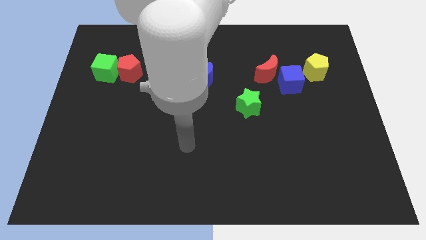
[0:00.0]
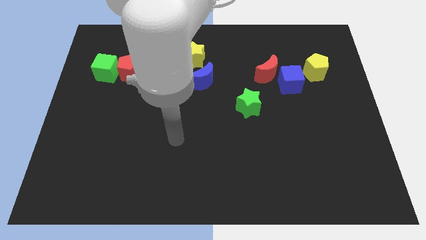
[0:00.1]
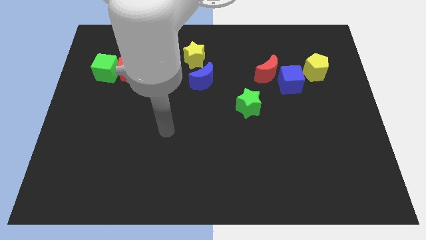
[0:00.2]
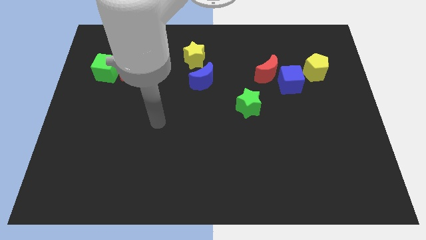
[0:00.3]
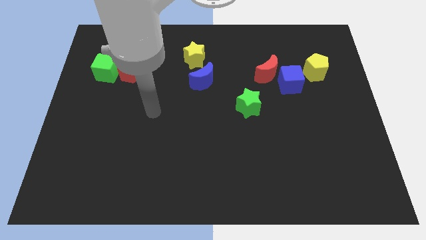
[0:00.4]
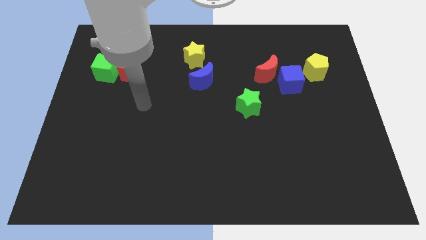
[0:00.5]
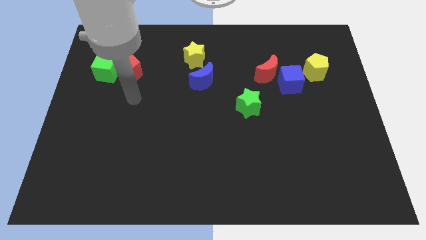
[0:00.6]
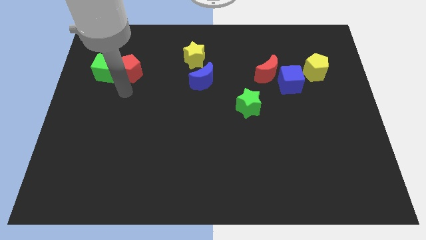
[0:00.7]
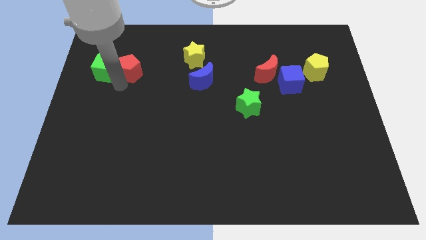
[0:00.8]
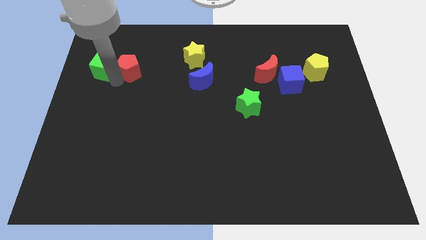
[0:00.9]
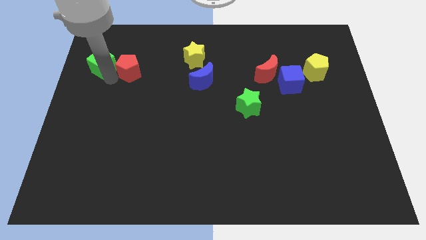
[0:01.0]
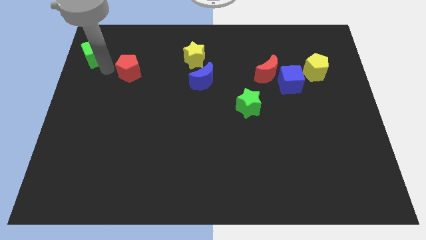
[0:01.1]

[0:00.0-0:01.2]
move the red pentagon away from the green cube

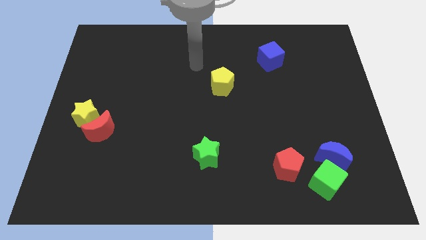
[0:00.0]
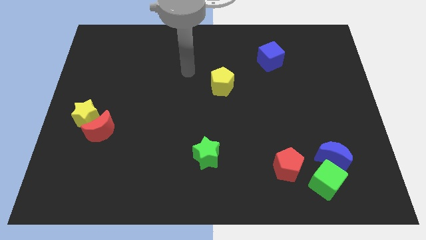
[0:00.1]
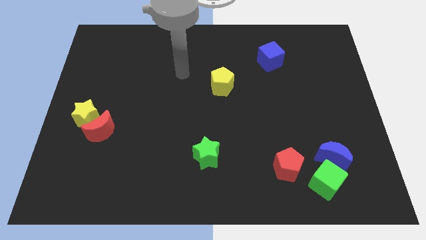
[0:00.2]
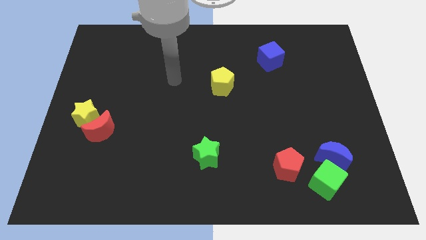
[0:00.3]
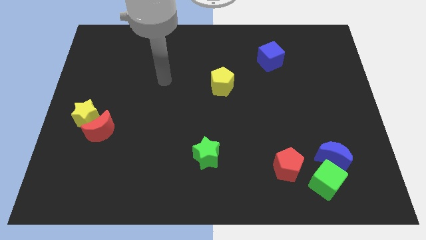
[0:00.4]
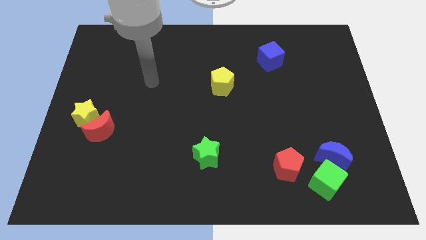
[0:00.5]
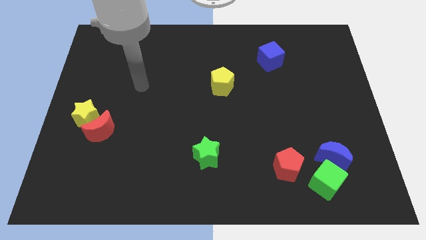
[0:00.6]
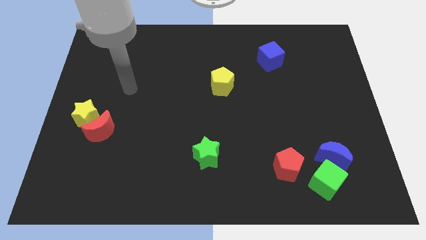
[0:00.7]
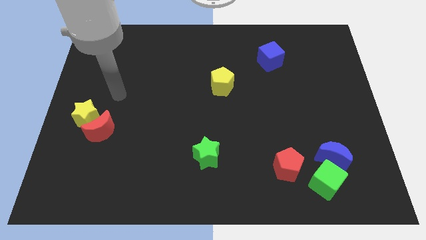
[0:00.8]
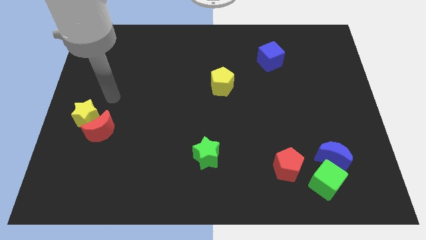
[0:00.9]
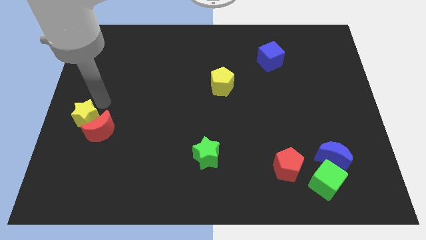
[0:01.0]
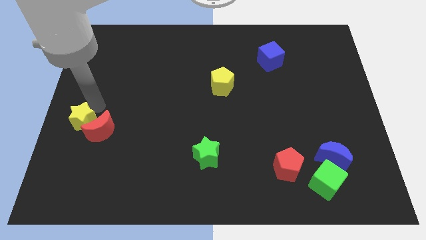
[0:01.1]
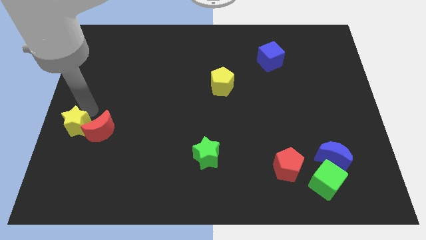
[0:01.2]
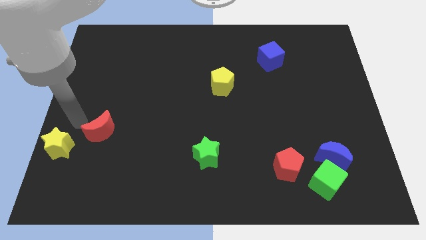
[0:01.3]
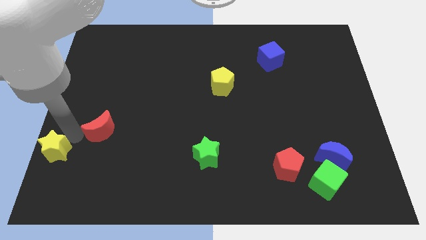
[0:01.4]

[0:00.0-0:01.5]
move the red moon away from the yellow star

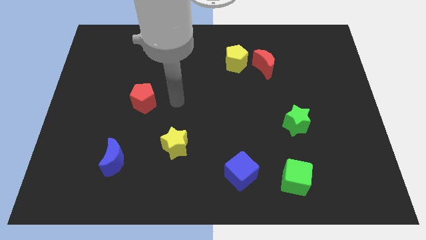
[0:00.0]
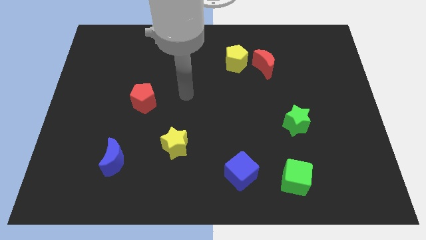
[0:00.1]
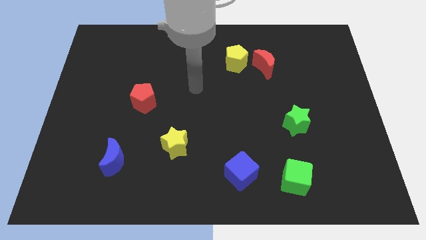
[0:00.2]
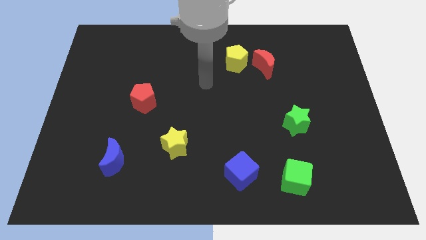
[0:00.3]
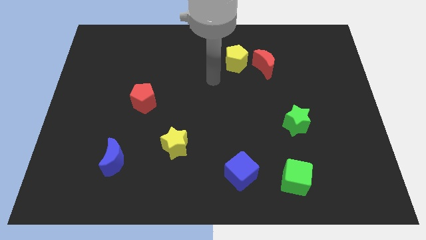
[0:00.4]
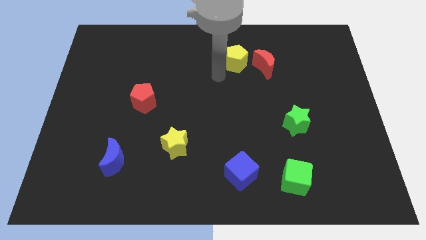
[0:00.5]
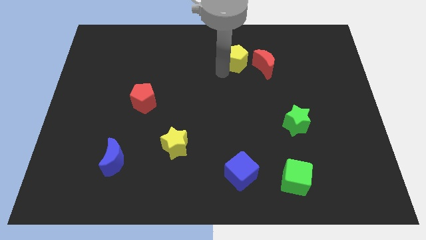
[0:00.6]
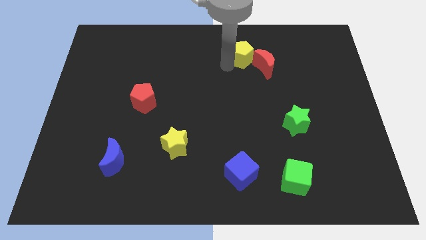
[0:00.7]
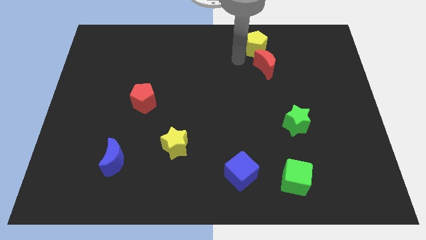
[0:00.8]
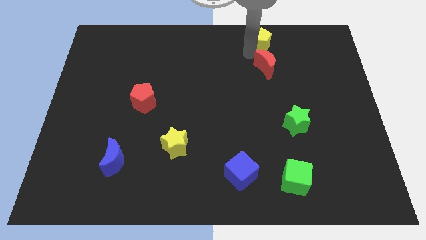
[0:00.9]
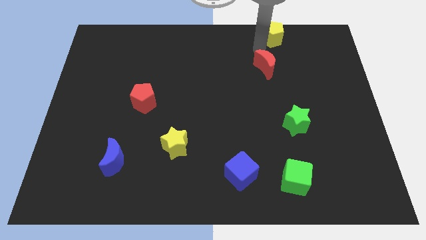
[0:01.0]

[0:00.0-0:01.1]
separate the red moon from the yellow pentagon

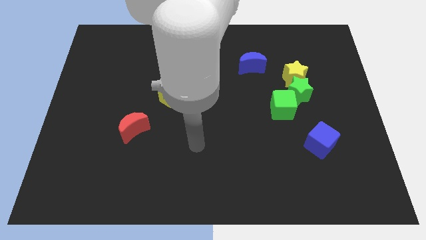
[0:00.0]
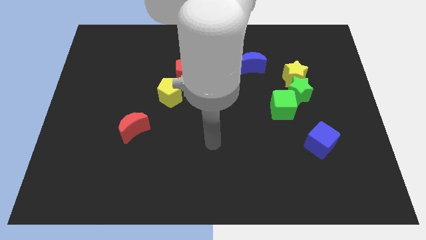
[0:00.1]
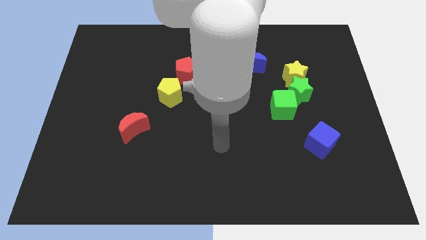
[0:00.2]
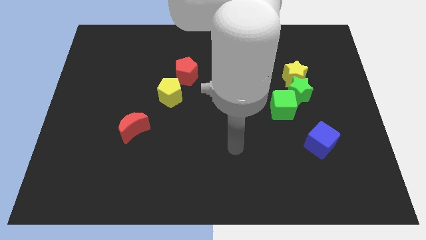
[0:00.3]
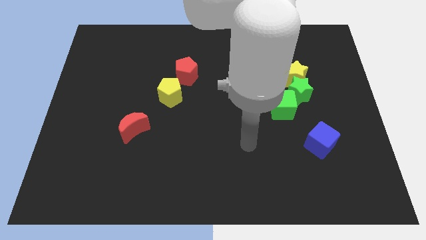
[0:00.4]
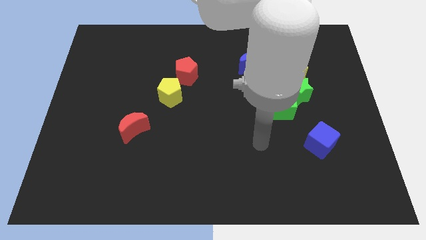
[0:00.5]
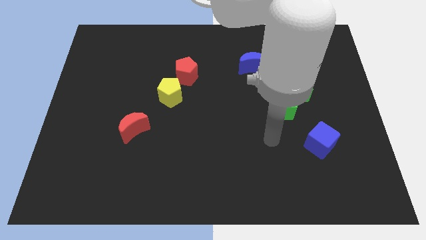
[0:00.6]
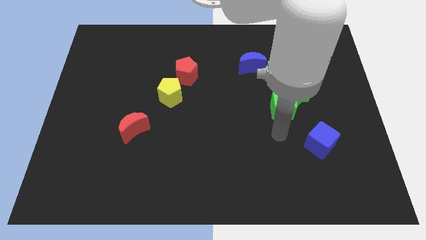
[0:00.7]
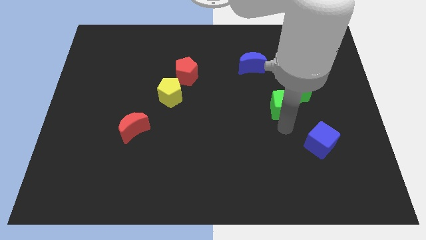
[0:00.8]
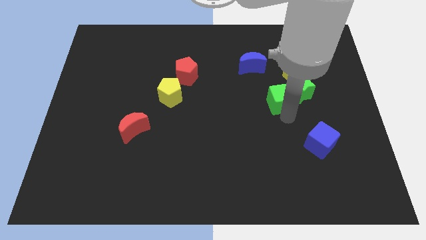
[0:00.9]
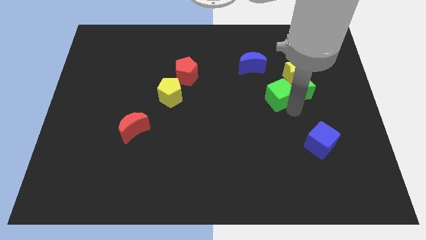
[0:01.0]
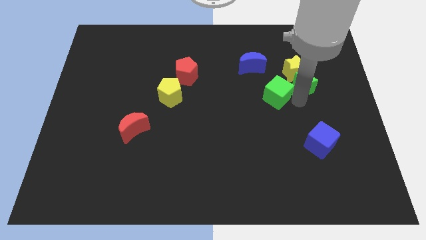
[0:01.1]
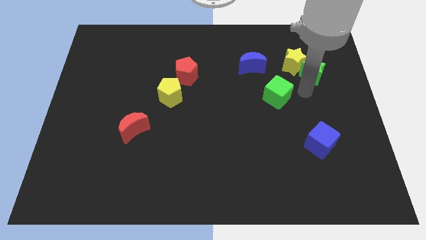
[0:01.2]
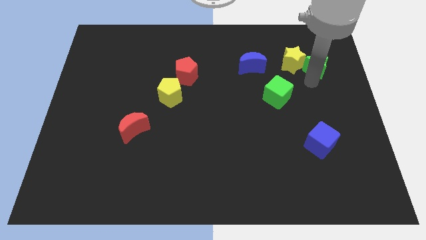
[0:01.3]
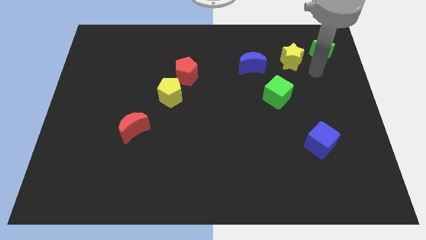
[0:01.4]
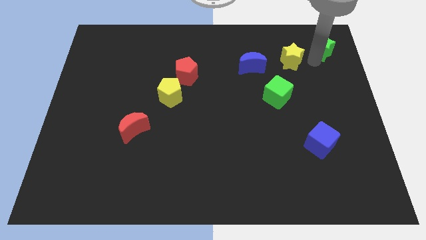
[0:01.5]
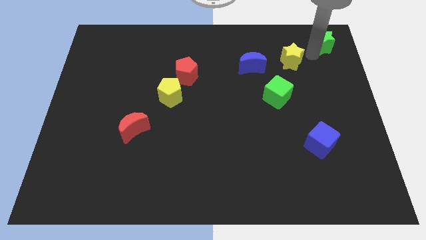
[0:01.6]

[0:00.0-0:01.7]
move the yellow star away from the green star

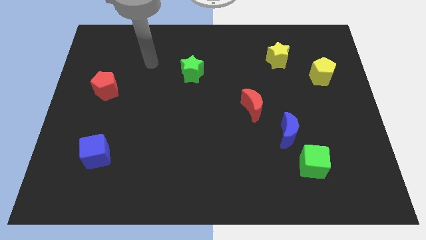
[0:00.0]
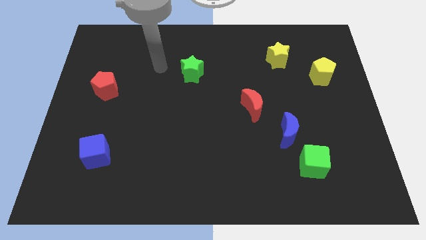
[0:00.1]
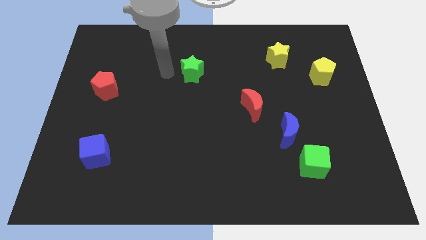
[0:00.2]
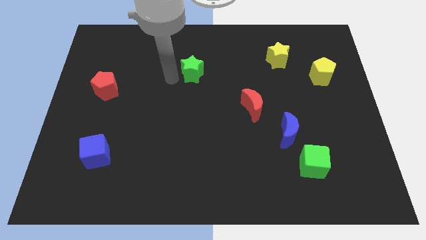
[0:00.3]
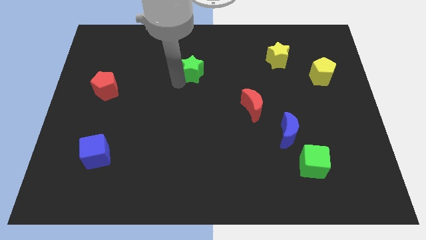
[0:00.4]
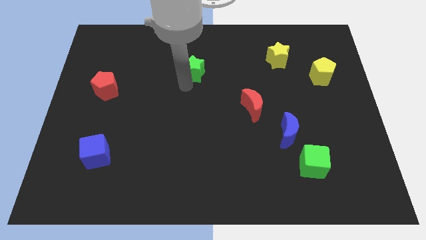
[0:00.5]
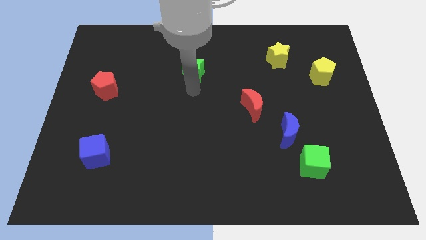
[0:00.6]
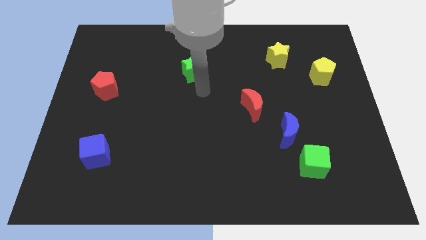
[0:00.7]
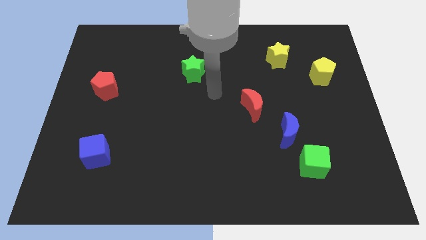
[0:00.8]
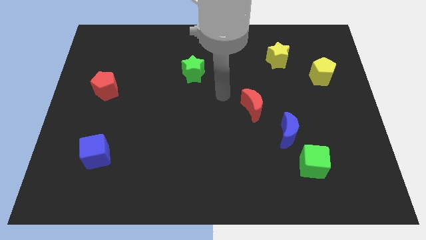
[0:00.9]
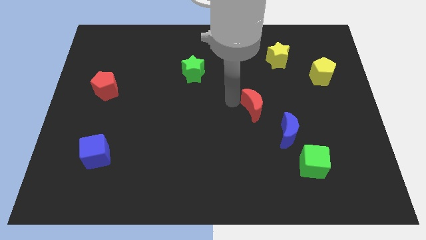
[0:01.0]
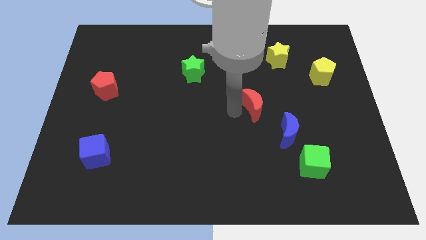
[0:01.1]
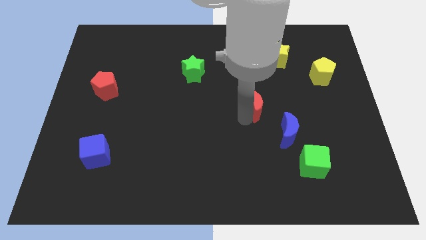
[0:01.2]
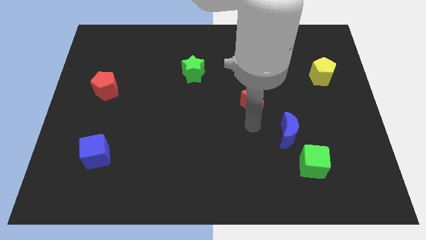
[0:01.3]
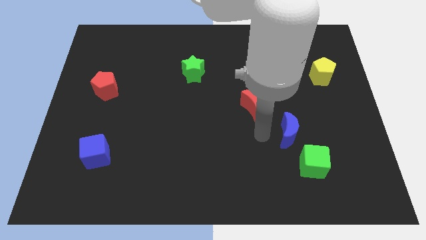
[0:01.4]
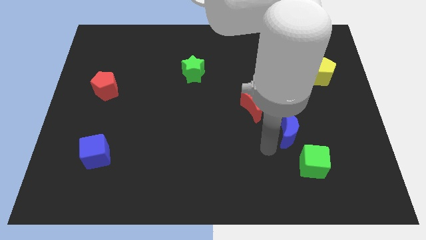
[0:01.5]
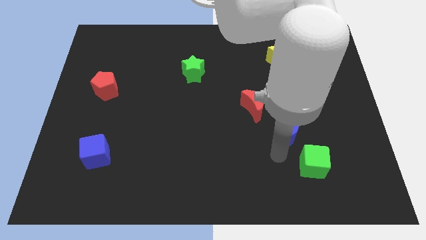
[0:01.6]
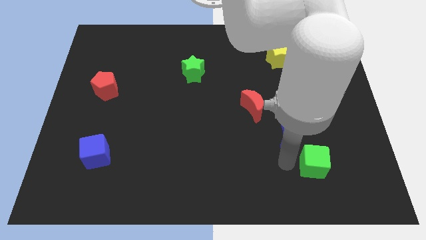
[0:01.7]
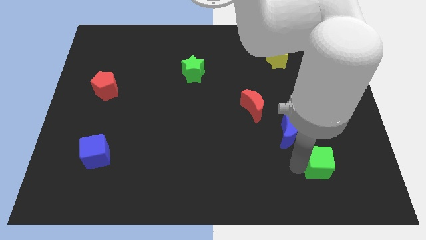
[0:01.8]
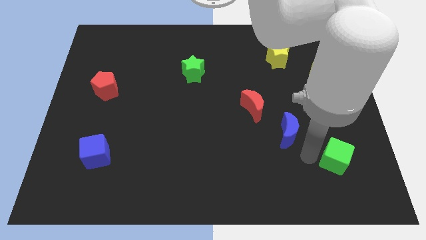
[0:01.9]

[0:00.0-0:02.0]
separate the blue moon from the green cube

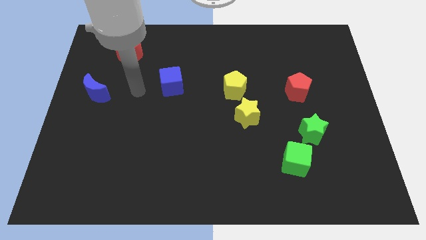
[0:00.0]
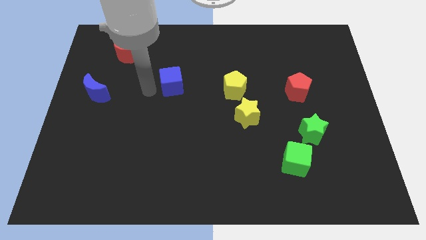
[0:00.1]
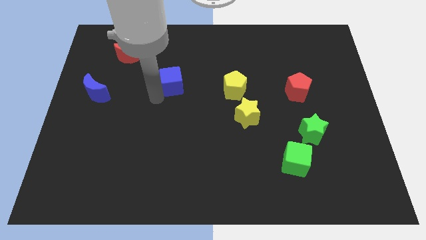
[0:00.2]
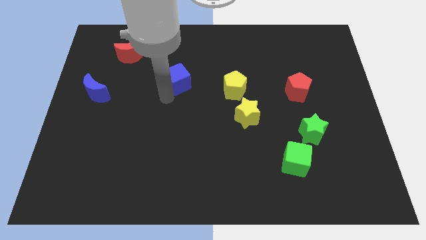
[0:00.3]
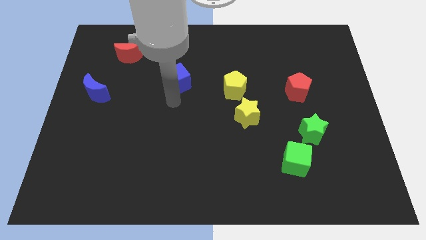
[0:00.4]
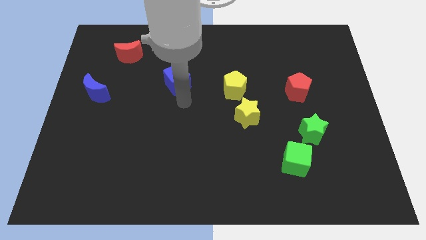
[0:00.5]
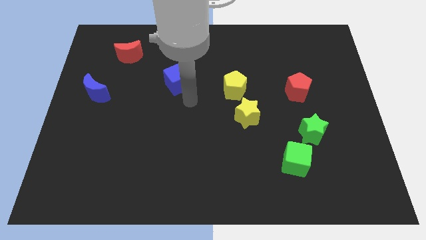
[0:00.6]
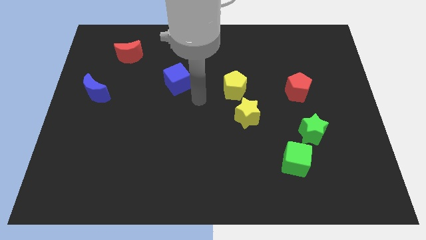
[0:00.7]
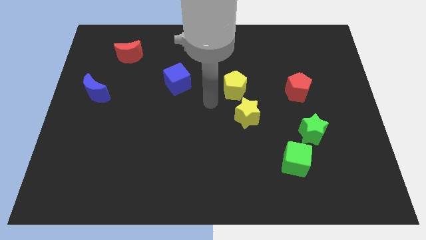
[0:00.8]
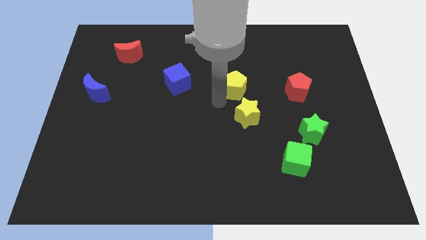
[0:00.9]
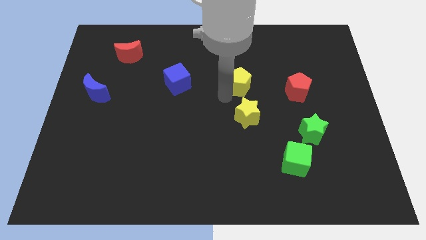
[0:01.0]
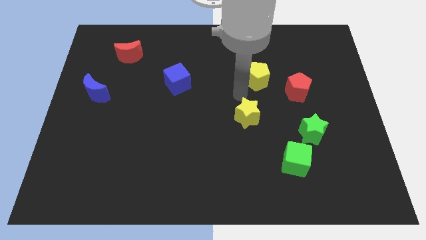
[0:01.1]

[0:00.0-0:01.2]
move the yellow star away from the yellow pentagon

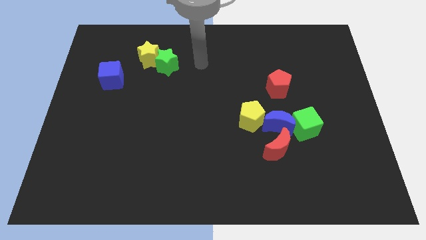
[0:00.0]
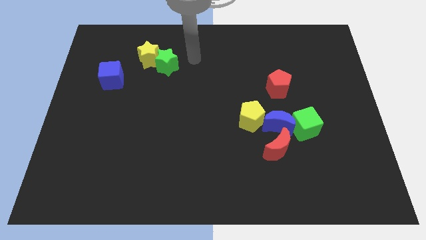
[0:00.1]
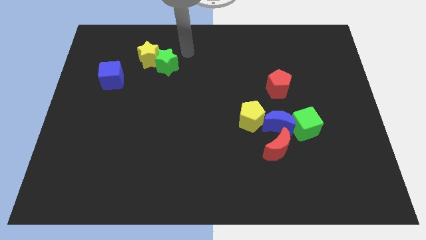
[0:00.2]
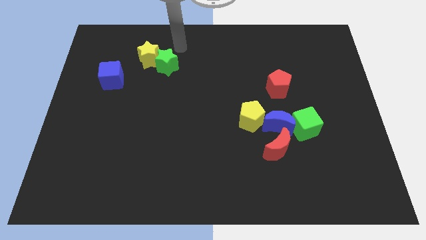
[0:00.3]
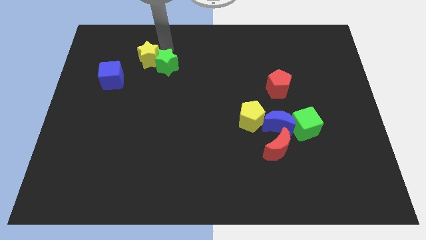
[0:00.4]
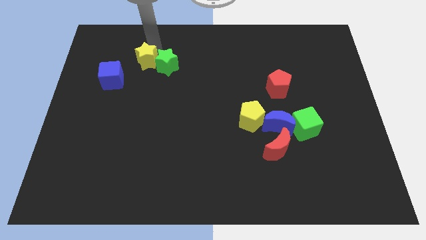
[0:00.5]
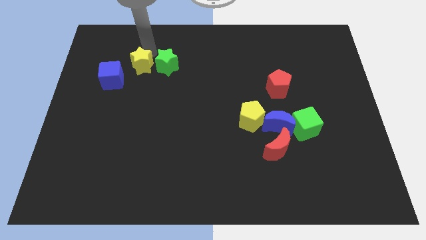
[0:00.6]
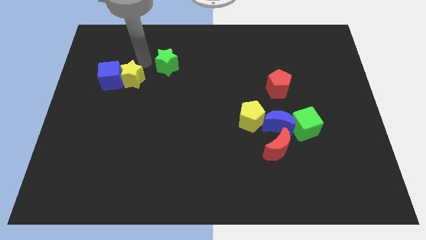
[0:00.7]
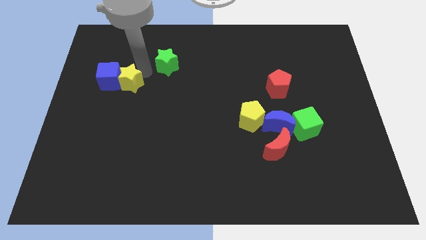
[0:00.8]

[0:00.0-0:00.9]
pull the green star apart from the yellow star
